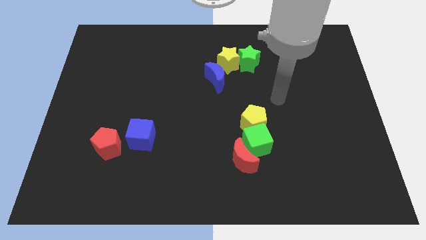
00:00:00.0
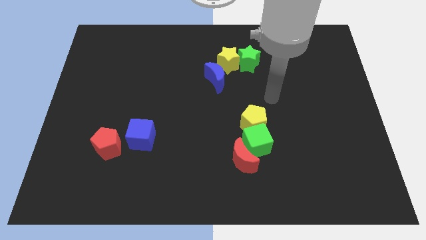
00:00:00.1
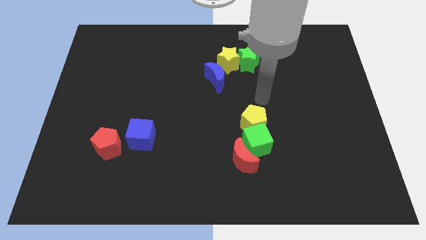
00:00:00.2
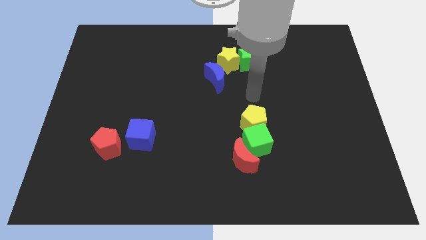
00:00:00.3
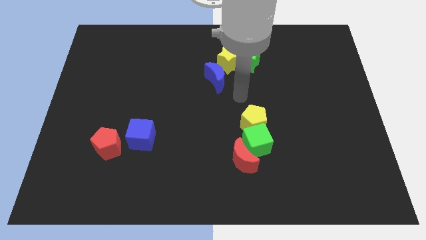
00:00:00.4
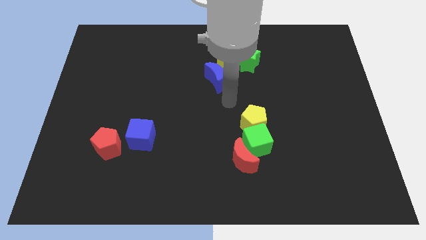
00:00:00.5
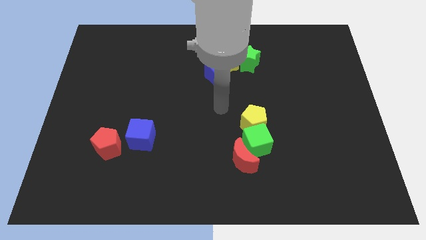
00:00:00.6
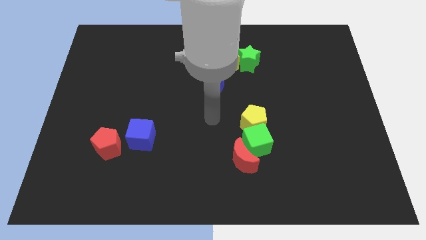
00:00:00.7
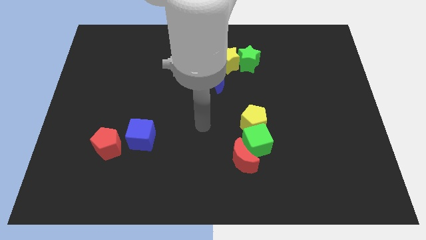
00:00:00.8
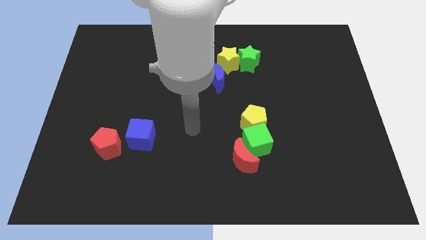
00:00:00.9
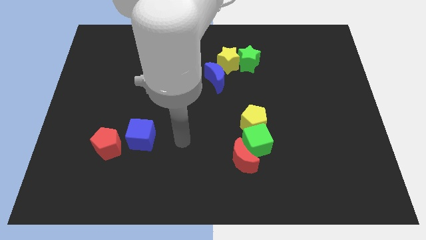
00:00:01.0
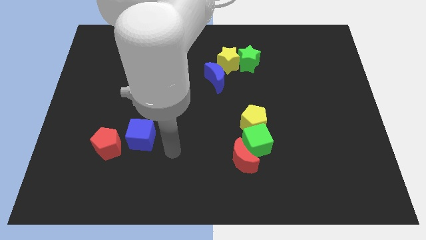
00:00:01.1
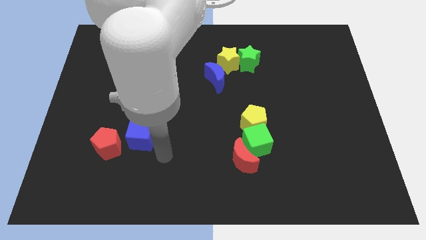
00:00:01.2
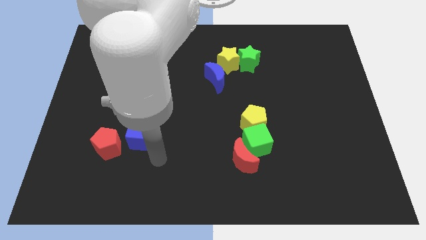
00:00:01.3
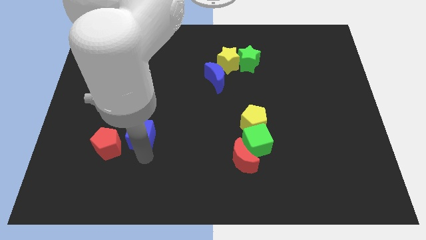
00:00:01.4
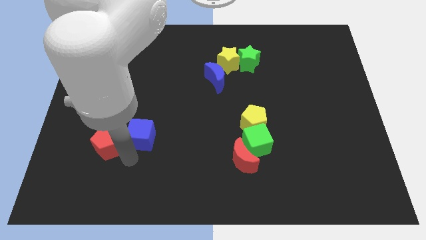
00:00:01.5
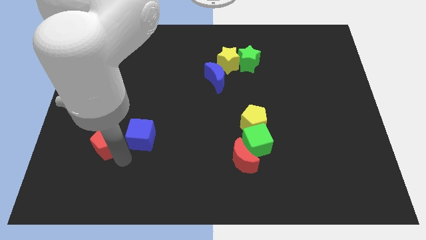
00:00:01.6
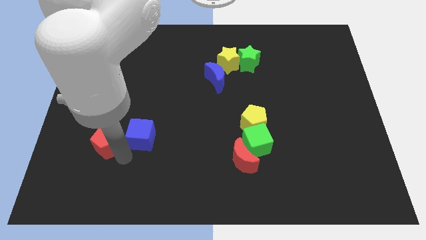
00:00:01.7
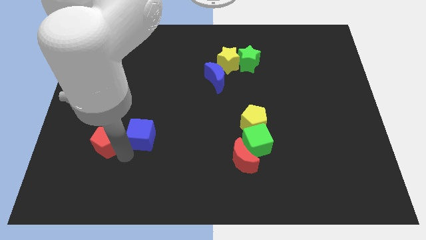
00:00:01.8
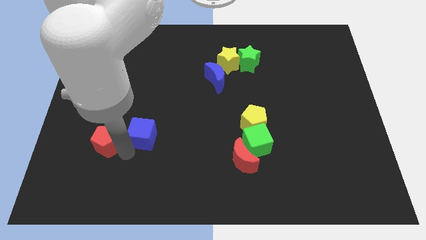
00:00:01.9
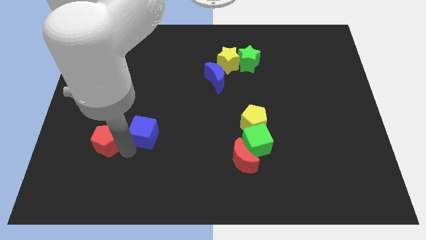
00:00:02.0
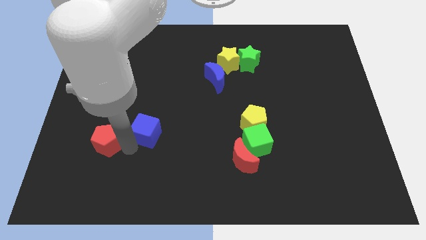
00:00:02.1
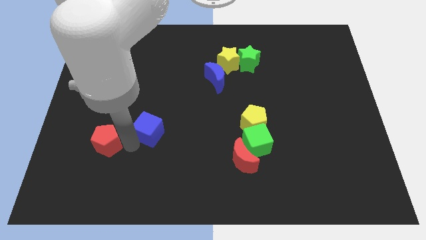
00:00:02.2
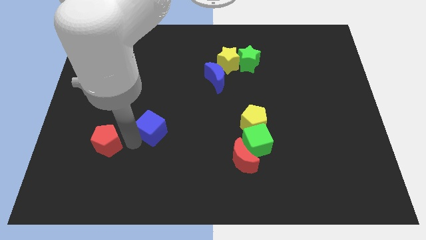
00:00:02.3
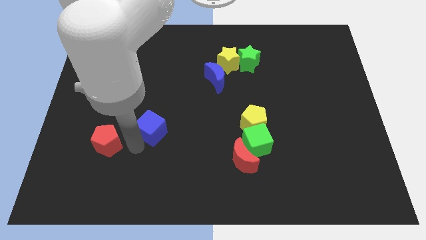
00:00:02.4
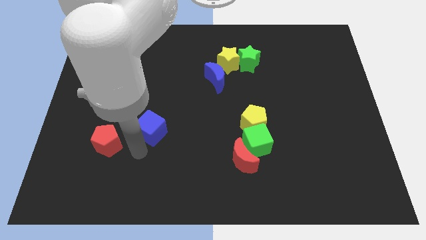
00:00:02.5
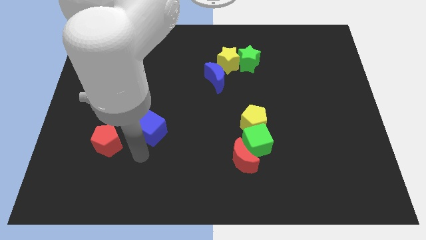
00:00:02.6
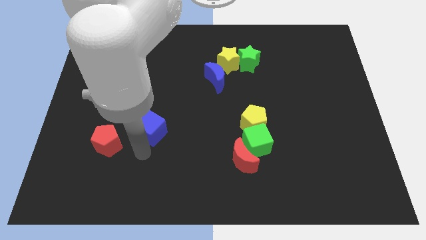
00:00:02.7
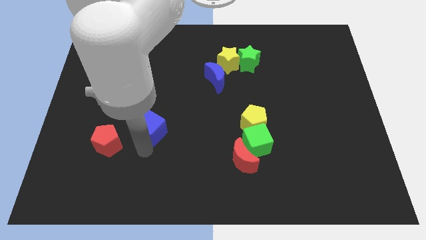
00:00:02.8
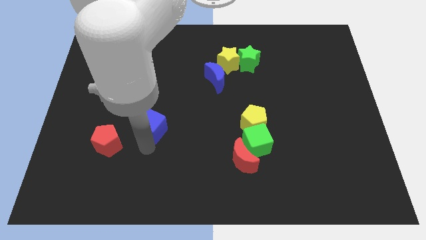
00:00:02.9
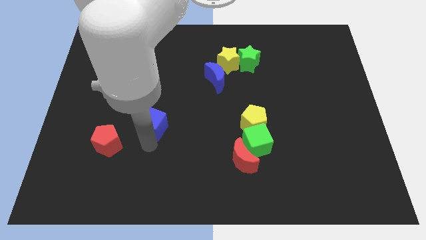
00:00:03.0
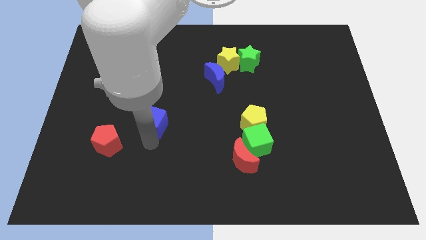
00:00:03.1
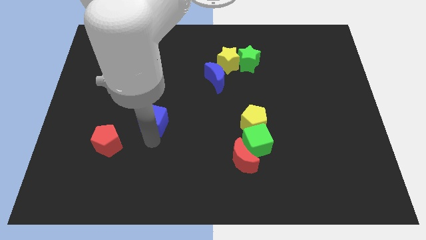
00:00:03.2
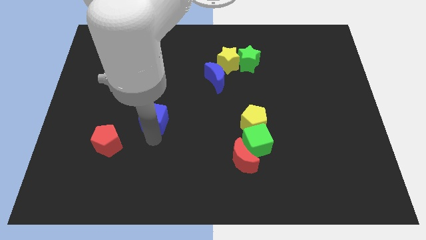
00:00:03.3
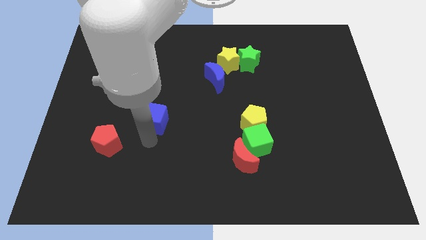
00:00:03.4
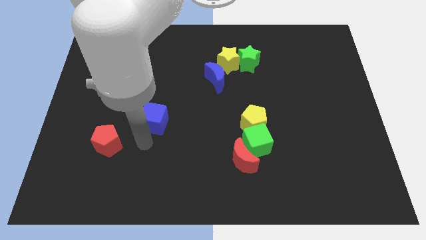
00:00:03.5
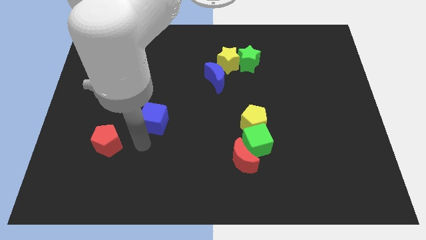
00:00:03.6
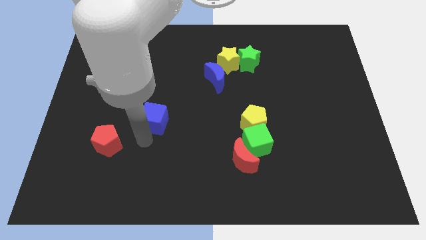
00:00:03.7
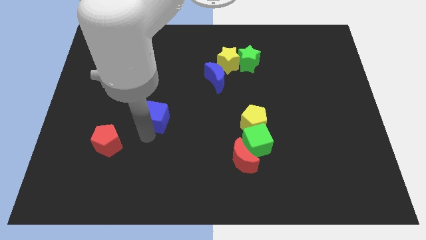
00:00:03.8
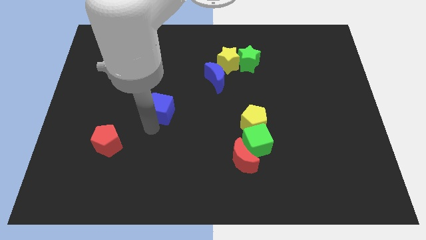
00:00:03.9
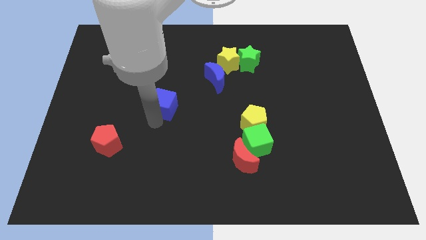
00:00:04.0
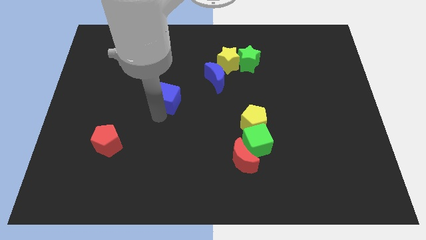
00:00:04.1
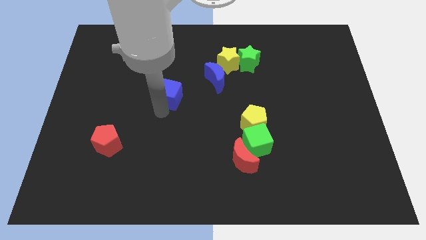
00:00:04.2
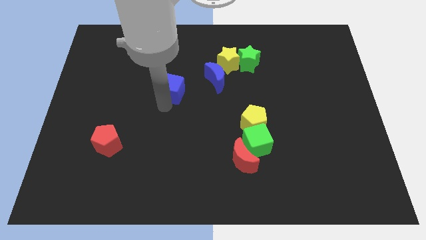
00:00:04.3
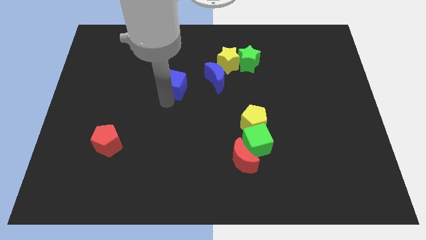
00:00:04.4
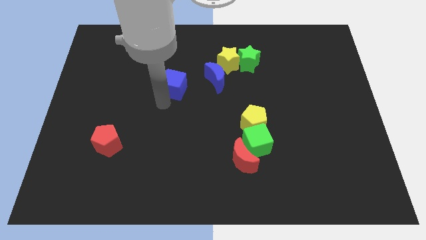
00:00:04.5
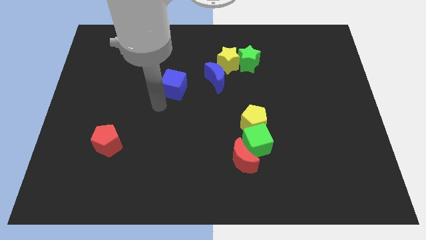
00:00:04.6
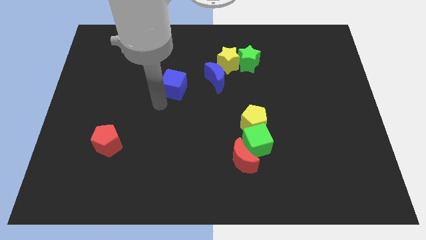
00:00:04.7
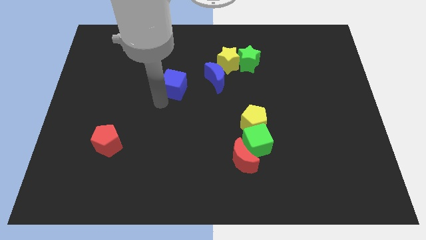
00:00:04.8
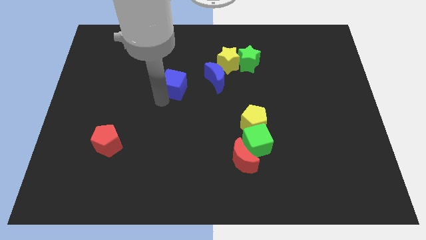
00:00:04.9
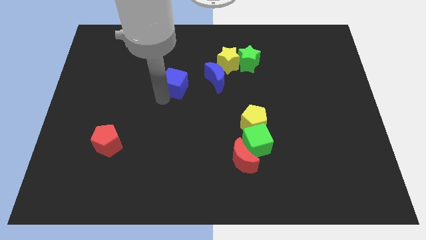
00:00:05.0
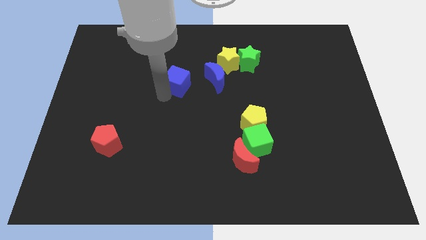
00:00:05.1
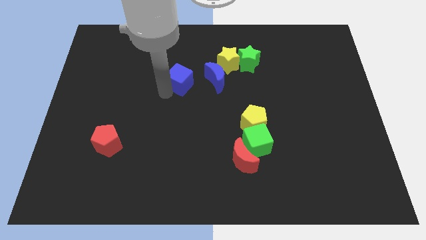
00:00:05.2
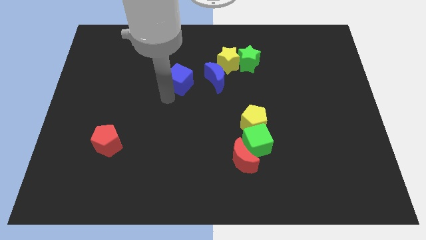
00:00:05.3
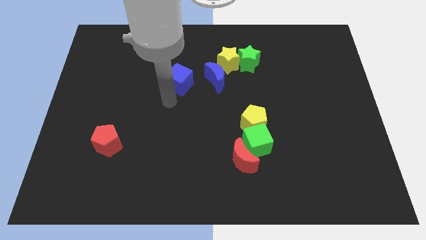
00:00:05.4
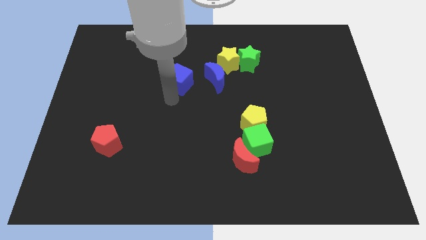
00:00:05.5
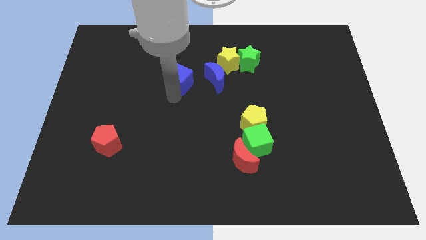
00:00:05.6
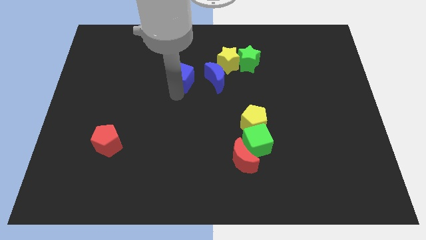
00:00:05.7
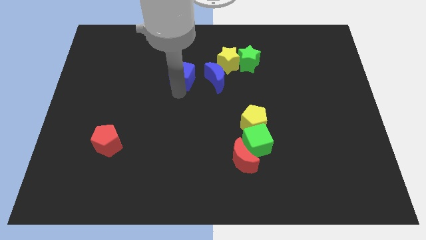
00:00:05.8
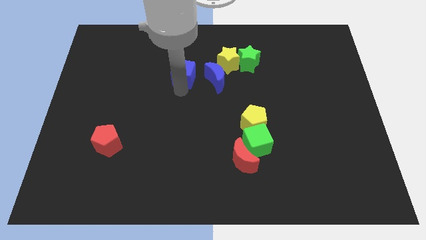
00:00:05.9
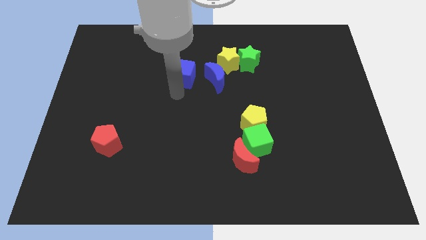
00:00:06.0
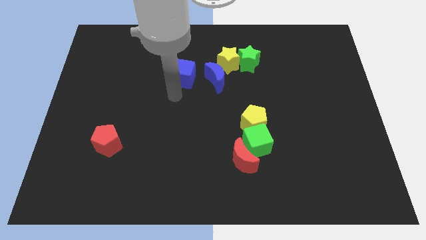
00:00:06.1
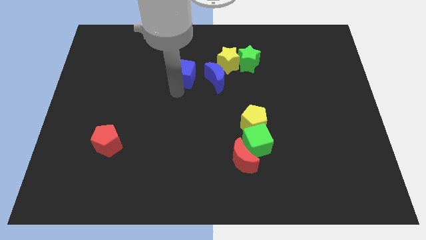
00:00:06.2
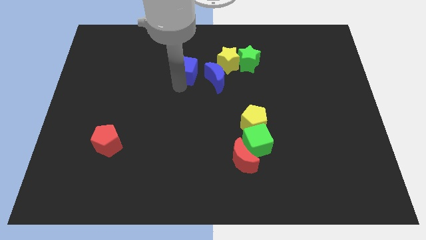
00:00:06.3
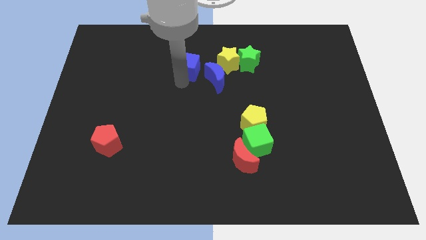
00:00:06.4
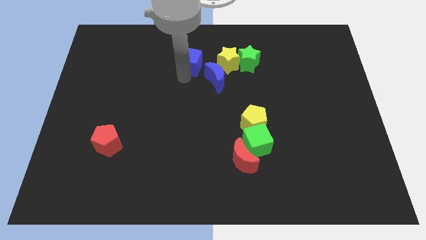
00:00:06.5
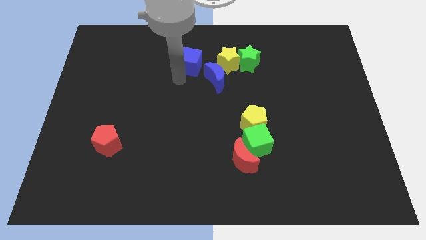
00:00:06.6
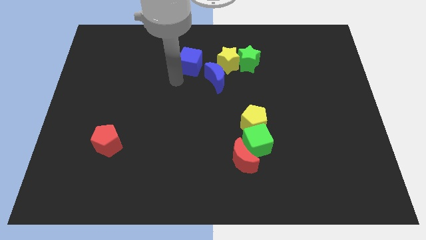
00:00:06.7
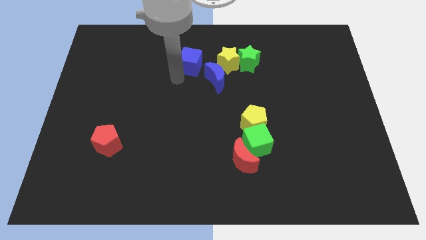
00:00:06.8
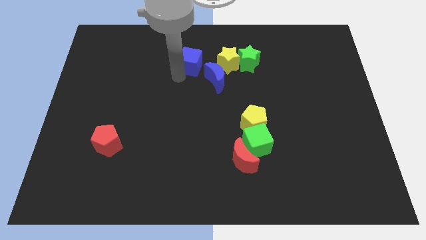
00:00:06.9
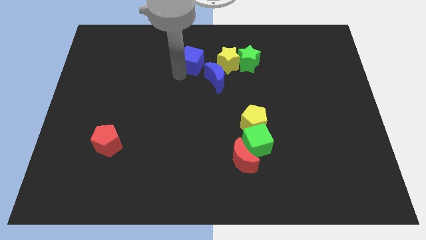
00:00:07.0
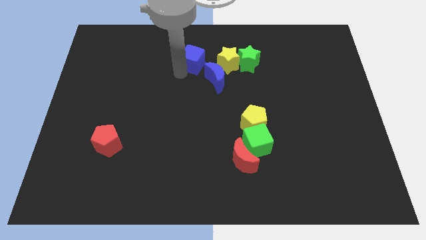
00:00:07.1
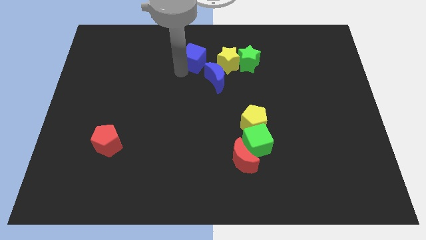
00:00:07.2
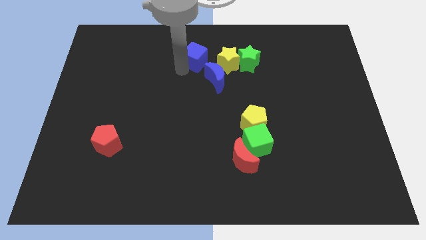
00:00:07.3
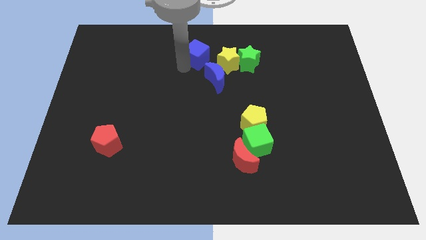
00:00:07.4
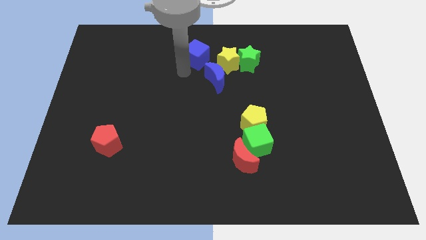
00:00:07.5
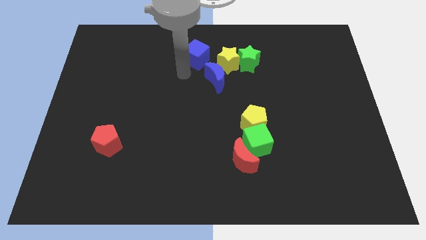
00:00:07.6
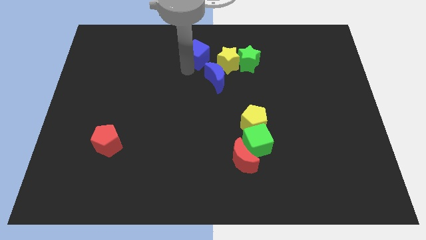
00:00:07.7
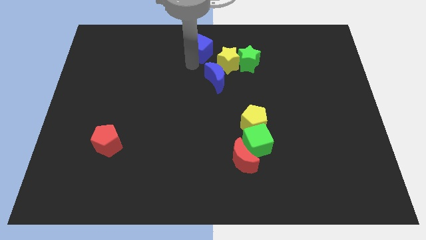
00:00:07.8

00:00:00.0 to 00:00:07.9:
move the blue cube to the top side
